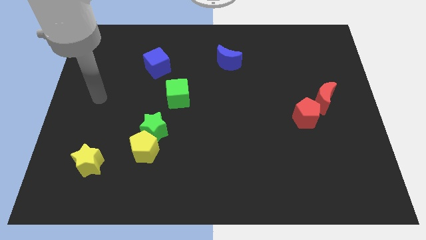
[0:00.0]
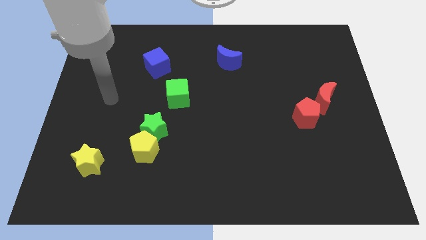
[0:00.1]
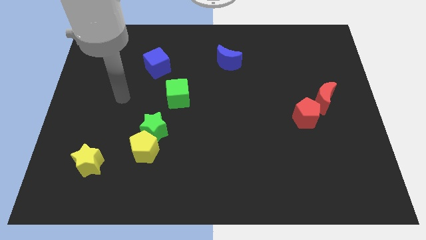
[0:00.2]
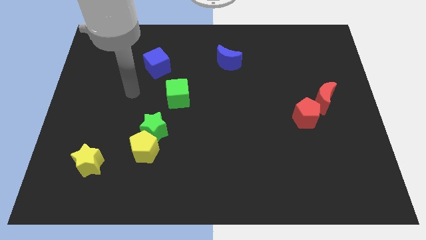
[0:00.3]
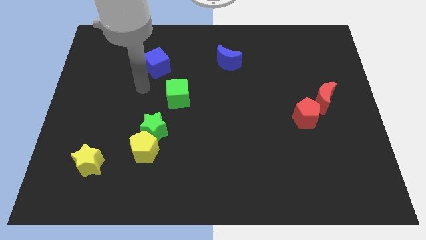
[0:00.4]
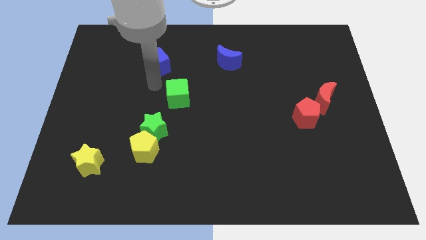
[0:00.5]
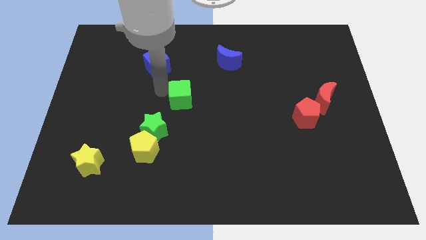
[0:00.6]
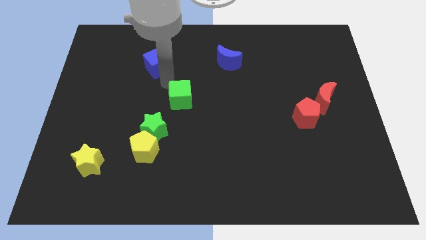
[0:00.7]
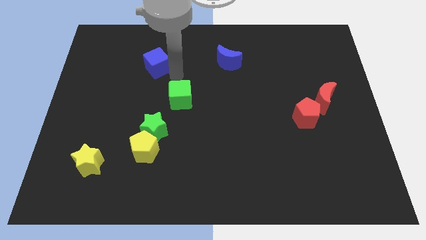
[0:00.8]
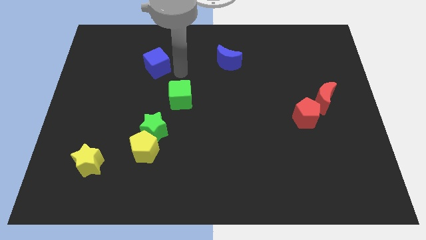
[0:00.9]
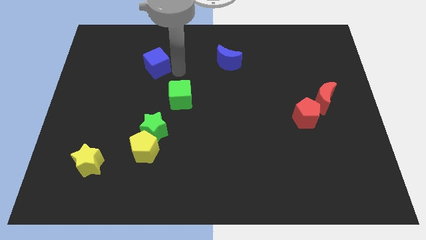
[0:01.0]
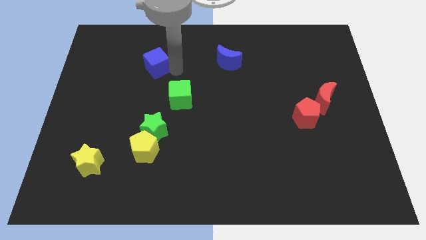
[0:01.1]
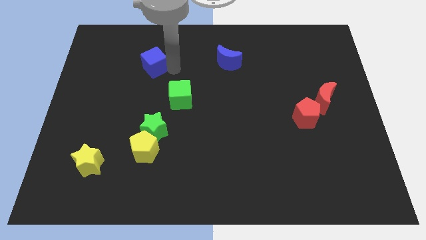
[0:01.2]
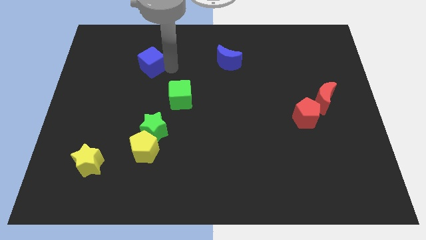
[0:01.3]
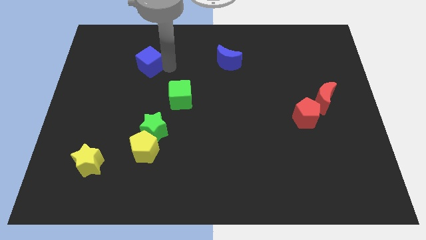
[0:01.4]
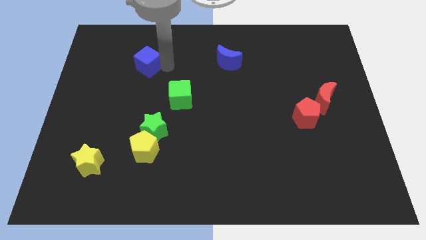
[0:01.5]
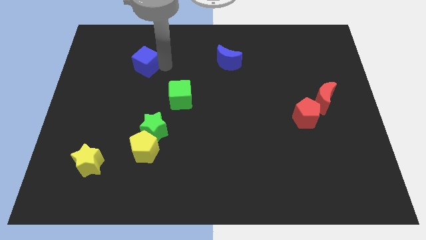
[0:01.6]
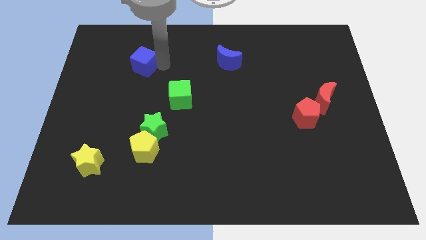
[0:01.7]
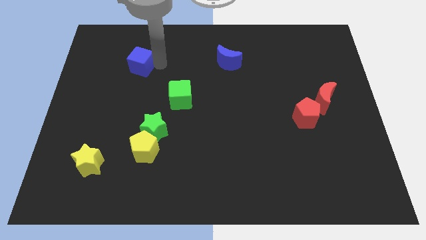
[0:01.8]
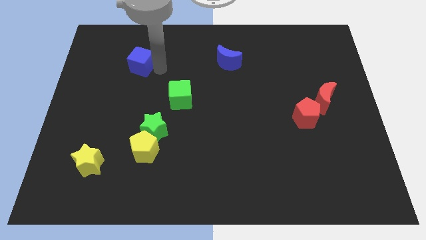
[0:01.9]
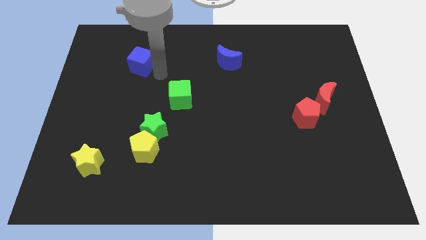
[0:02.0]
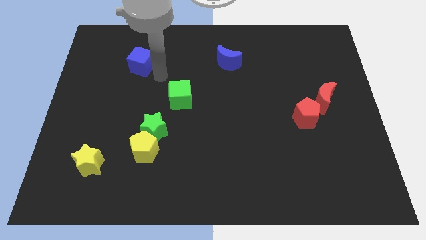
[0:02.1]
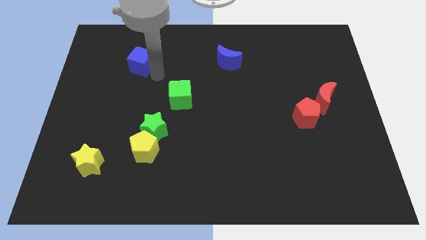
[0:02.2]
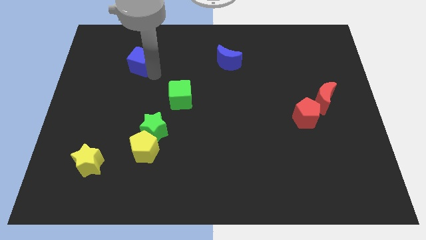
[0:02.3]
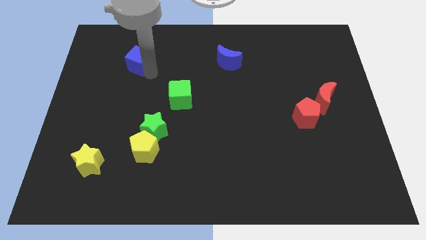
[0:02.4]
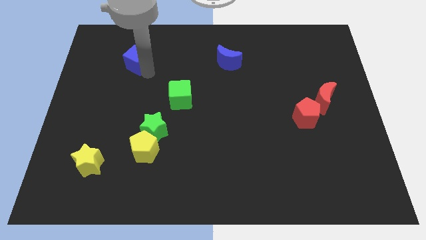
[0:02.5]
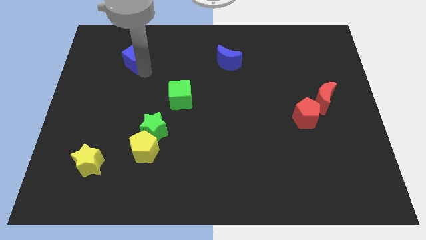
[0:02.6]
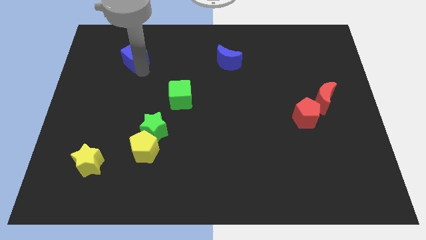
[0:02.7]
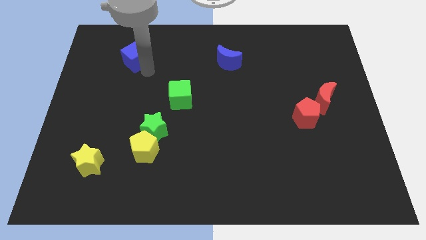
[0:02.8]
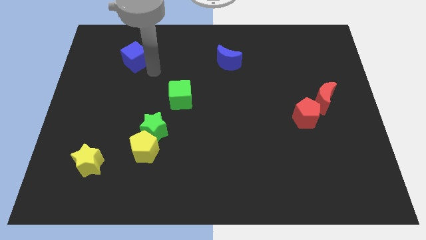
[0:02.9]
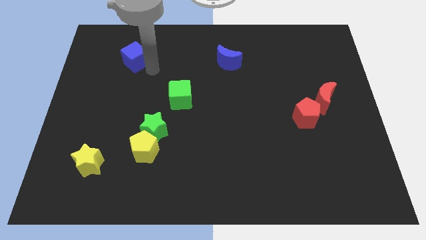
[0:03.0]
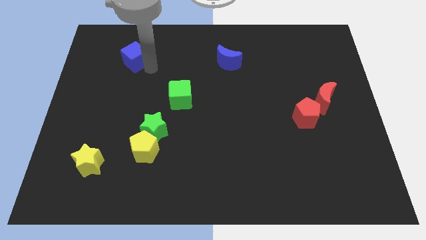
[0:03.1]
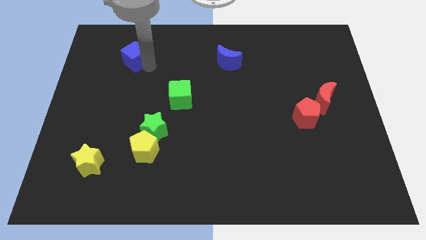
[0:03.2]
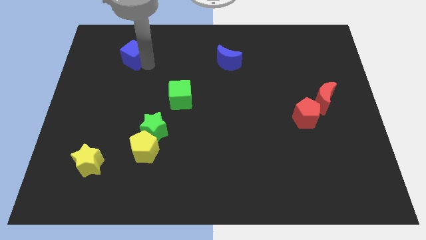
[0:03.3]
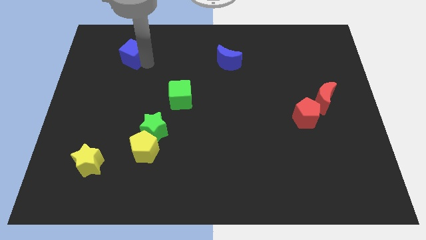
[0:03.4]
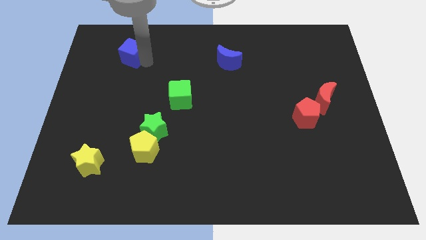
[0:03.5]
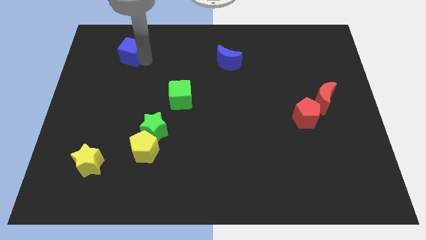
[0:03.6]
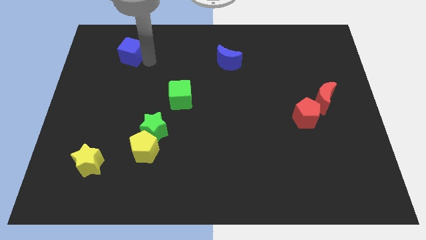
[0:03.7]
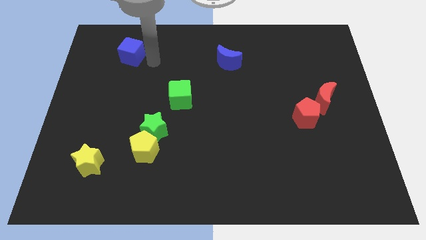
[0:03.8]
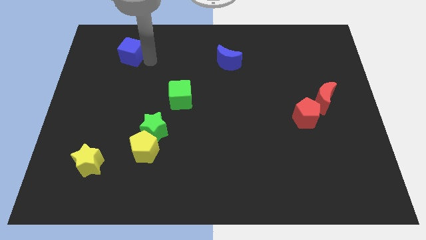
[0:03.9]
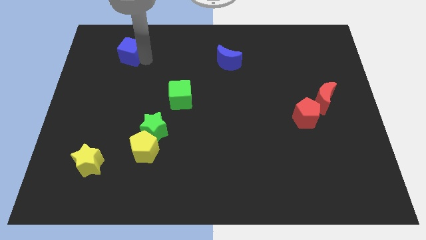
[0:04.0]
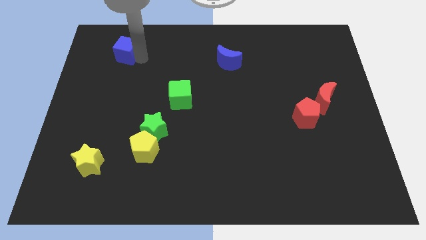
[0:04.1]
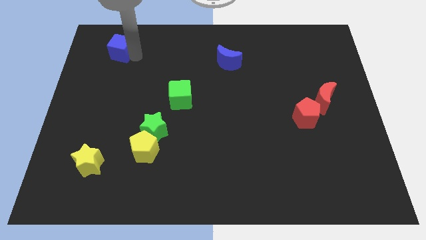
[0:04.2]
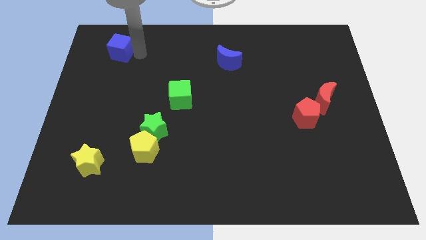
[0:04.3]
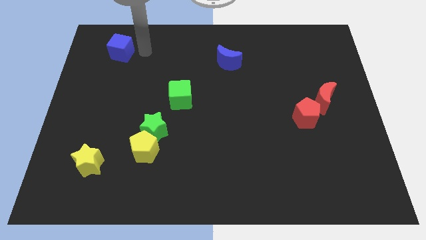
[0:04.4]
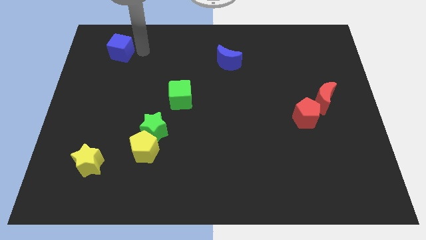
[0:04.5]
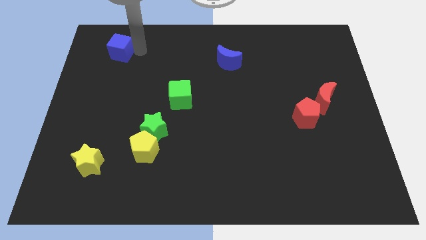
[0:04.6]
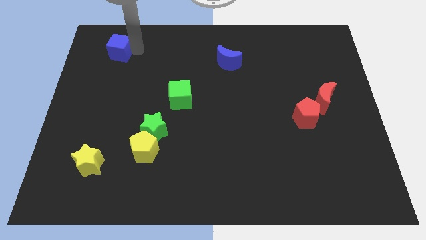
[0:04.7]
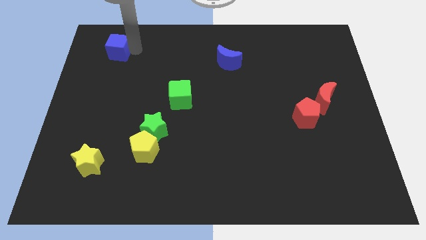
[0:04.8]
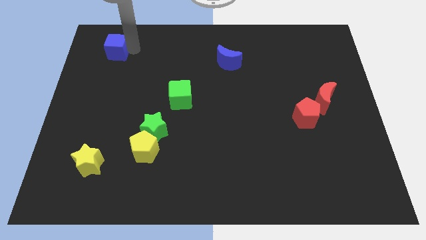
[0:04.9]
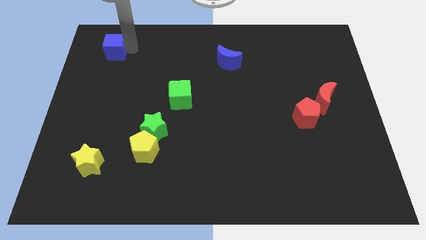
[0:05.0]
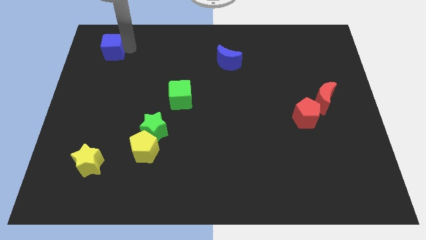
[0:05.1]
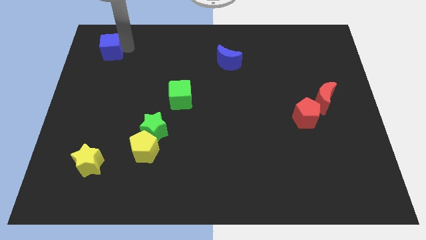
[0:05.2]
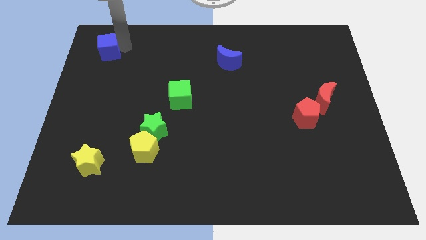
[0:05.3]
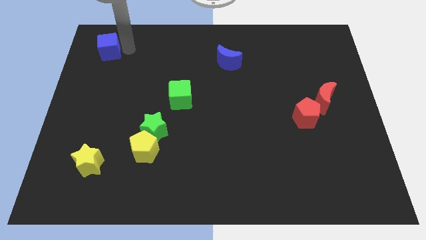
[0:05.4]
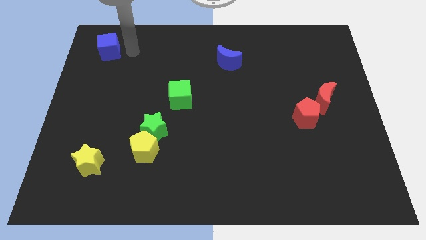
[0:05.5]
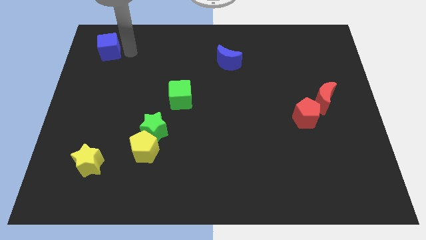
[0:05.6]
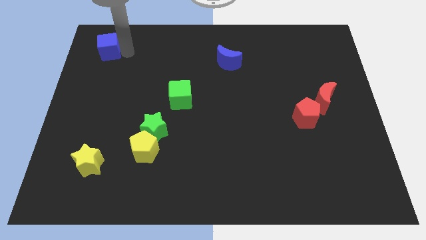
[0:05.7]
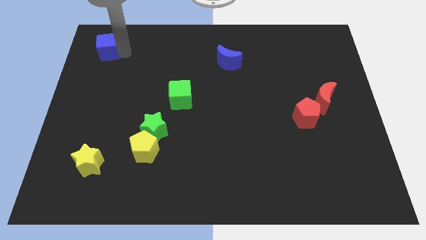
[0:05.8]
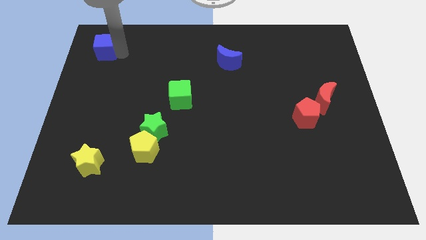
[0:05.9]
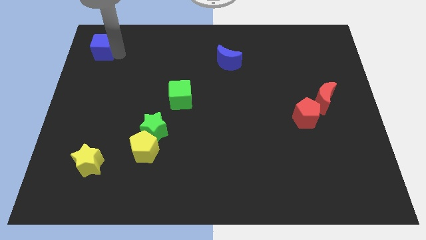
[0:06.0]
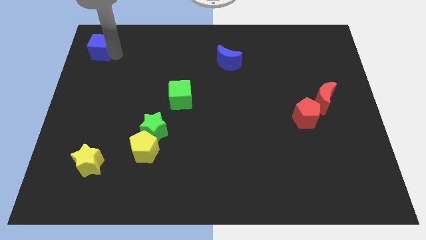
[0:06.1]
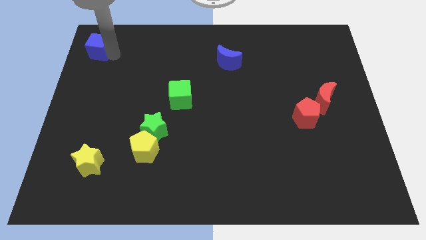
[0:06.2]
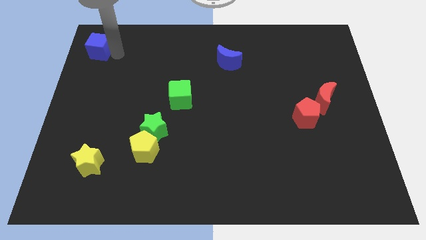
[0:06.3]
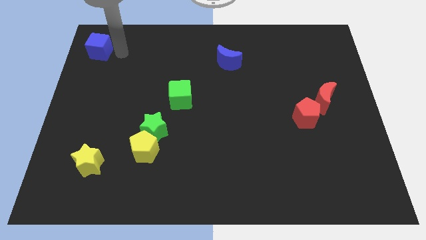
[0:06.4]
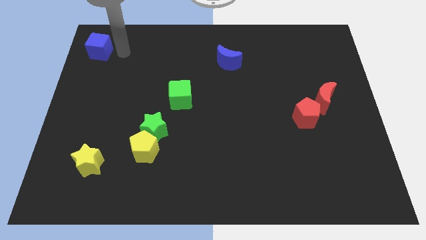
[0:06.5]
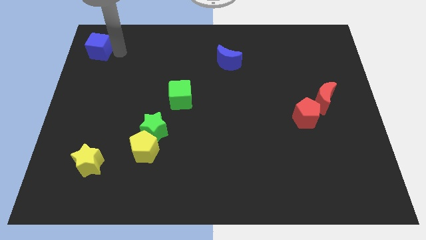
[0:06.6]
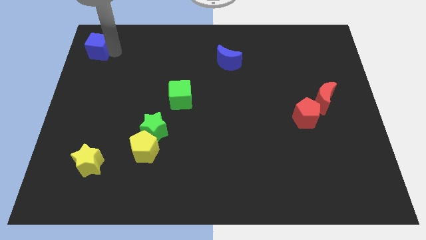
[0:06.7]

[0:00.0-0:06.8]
slide the blue cube to the top left corner
